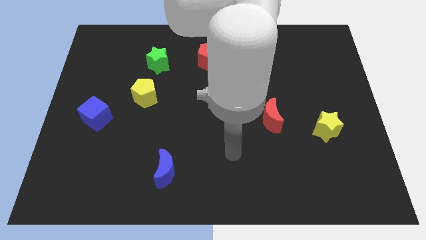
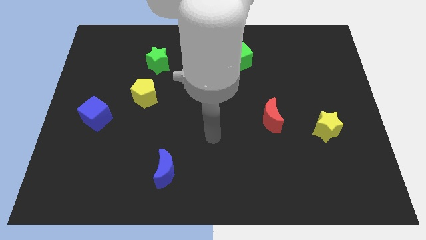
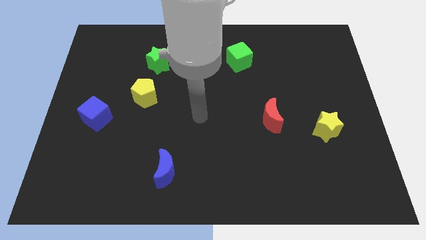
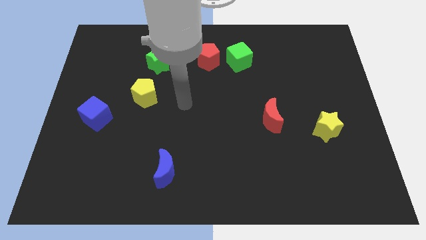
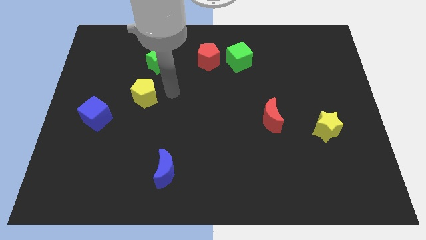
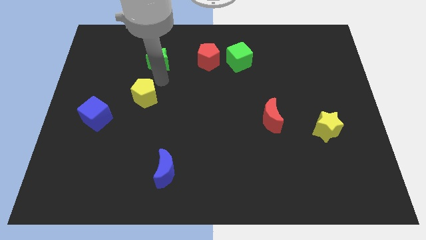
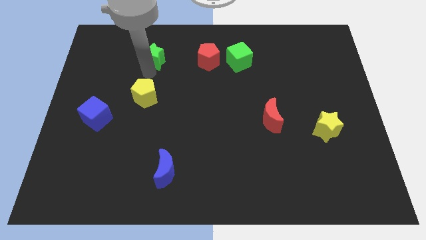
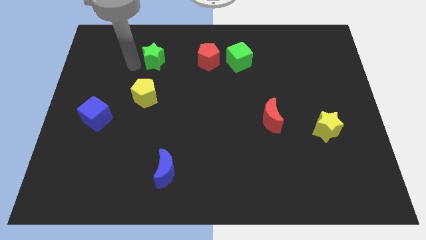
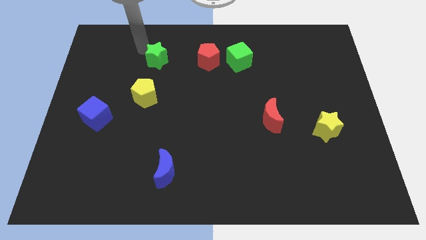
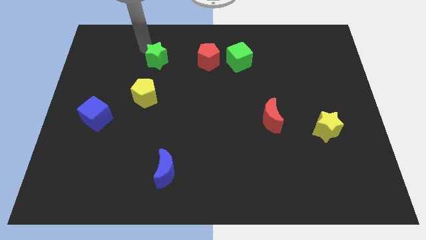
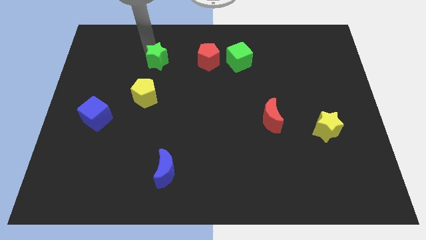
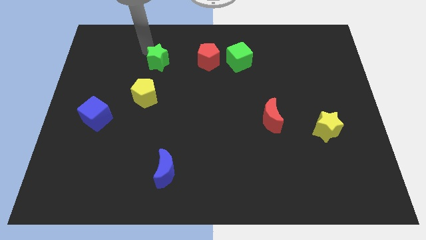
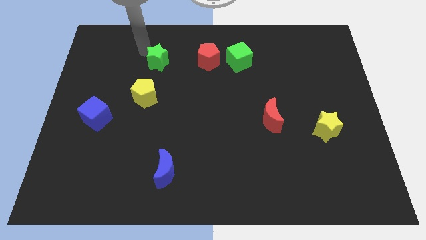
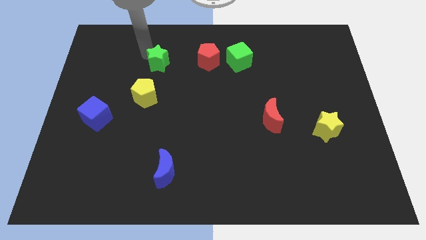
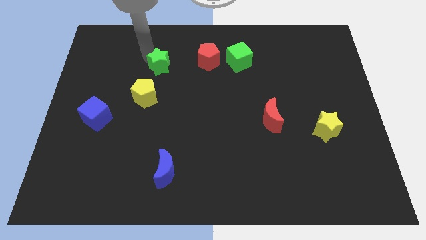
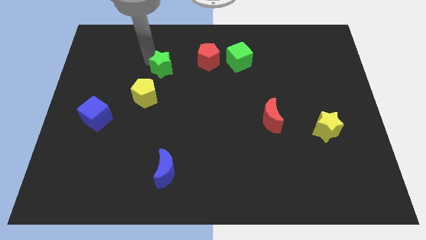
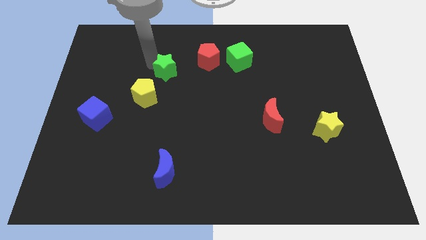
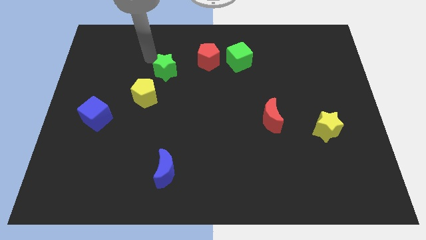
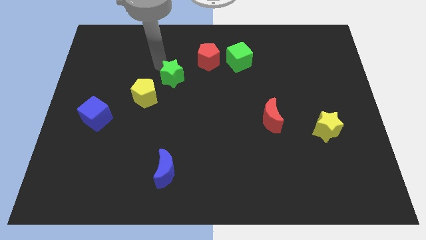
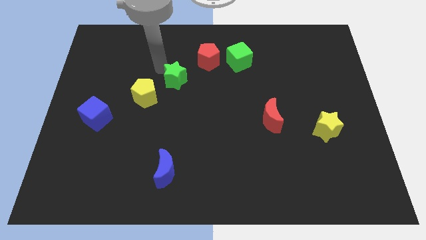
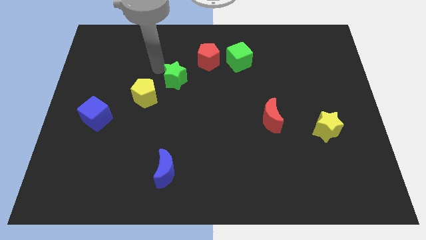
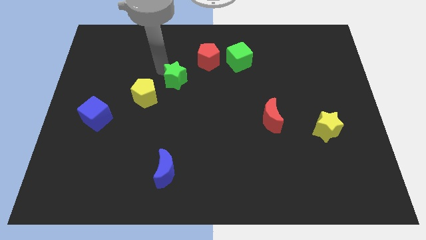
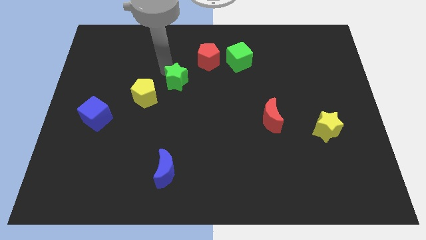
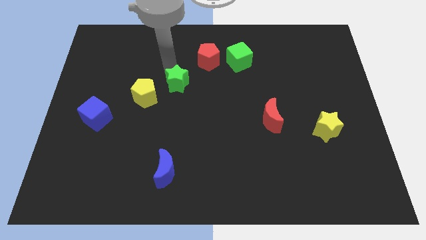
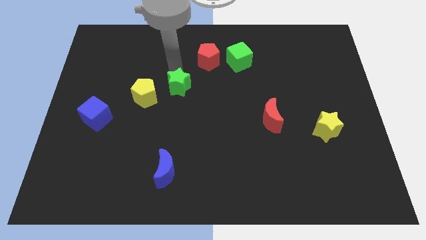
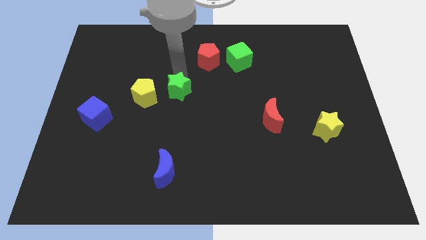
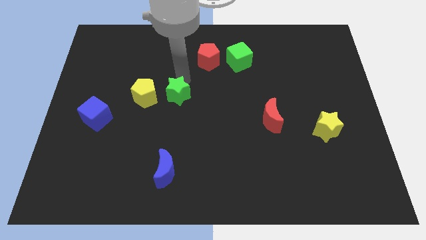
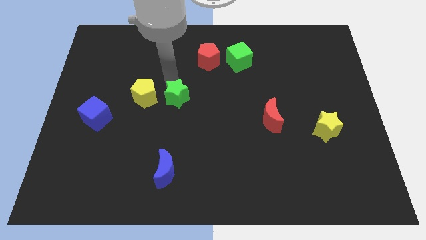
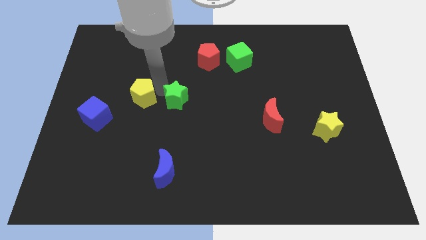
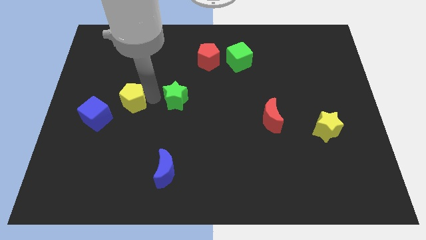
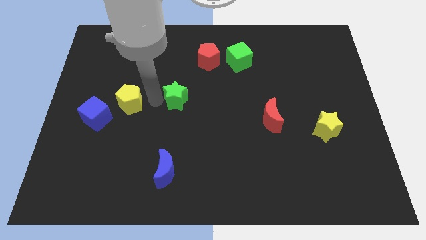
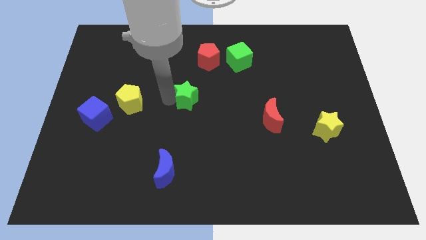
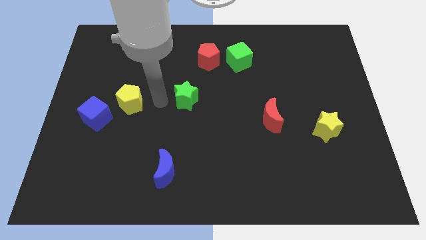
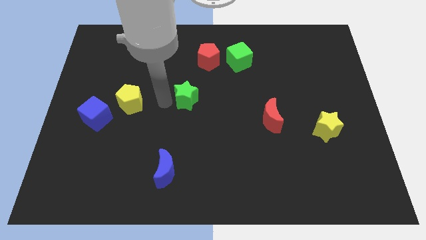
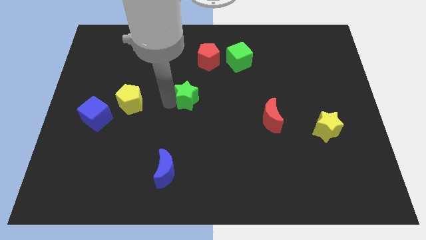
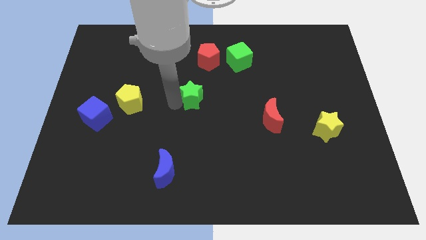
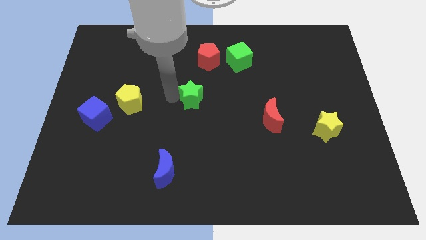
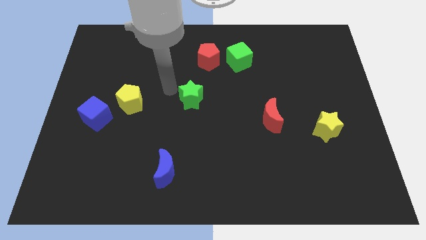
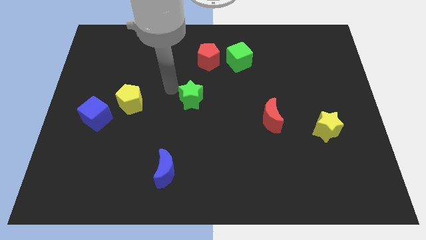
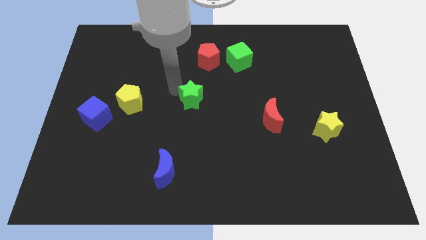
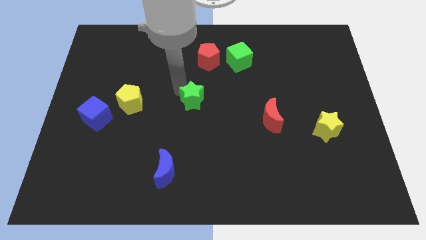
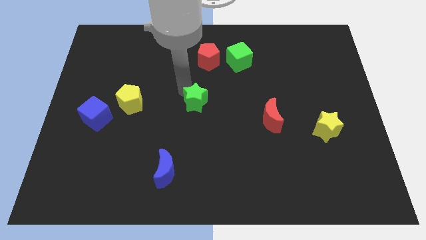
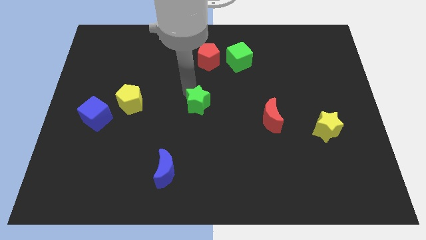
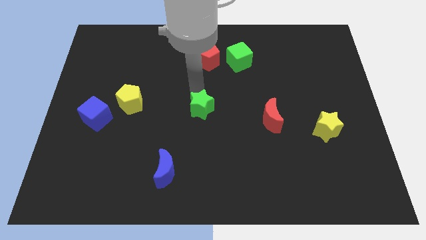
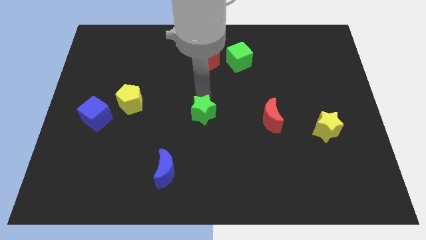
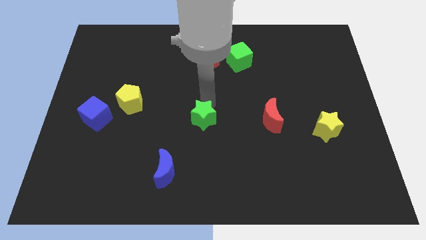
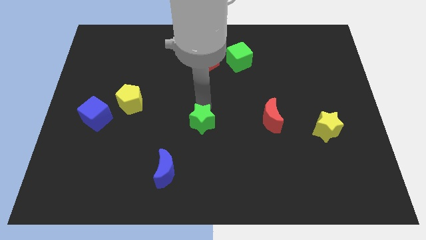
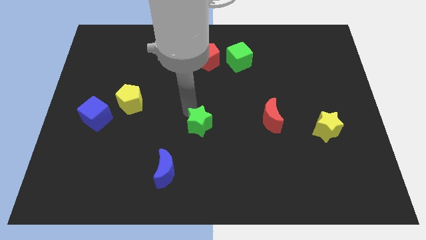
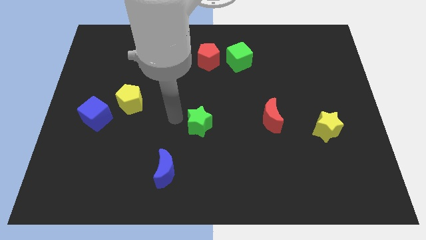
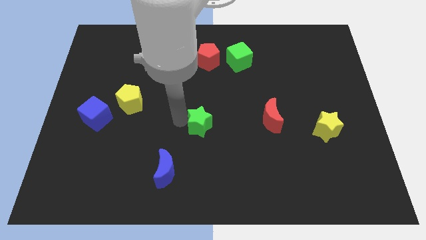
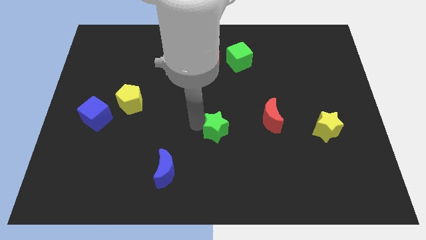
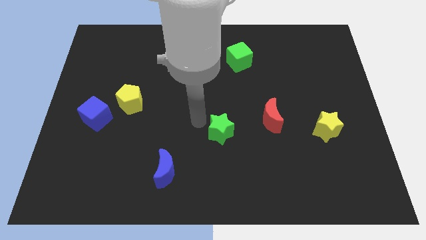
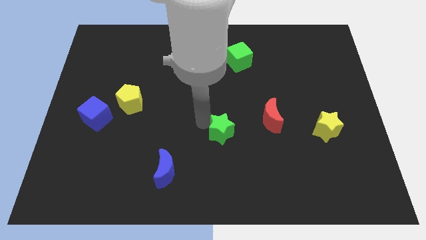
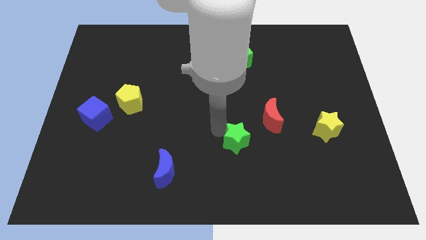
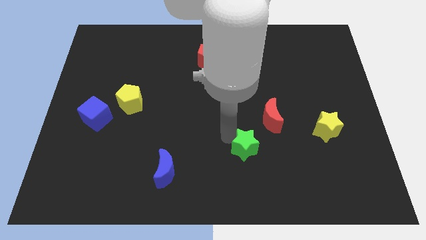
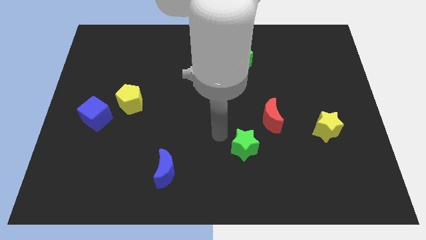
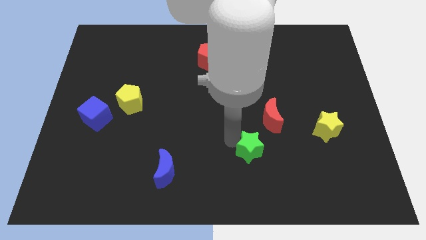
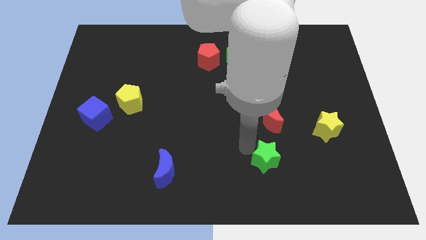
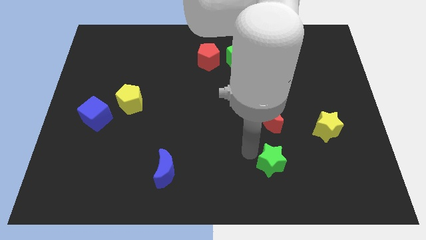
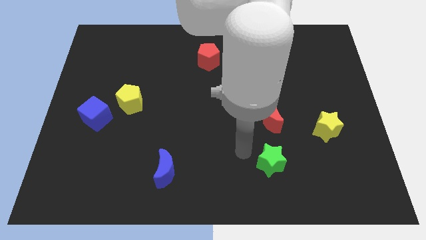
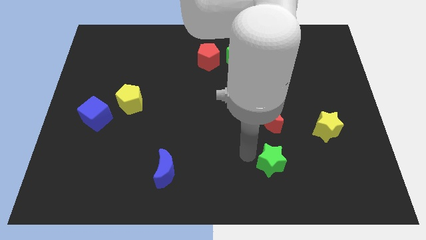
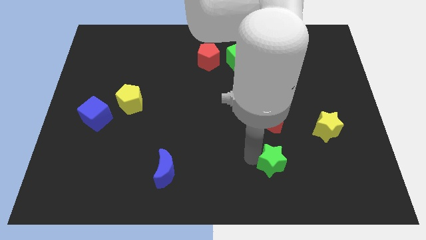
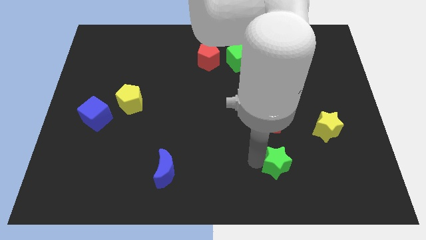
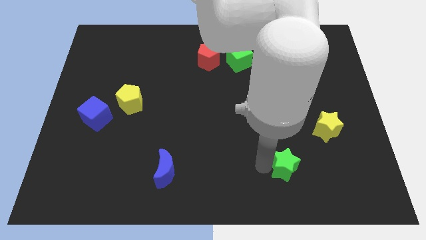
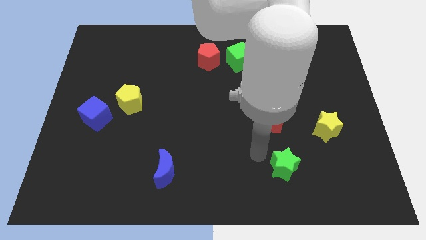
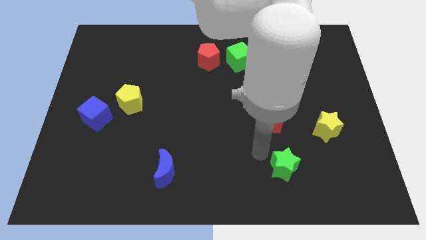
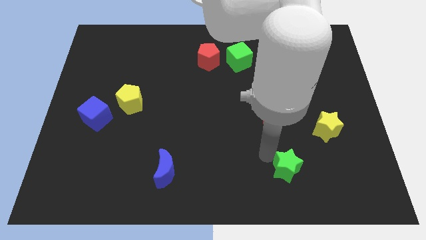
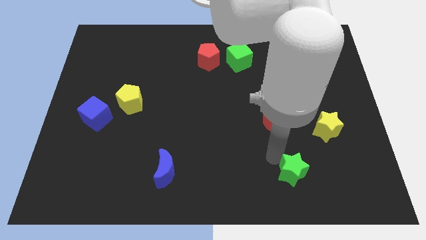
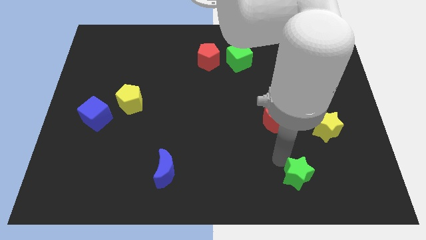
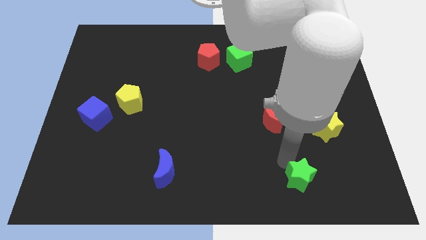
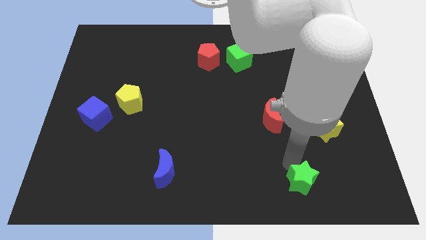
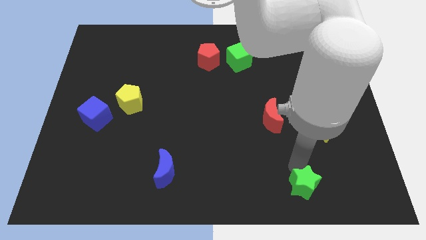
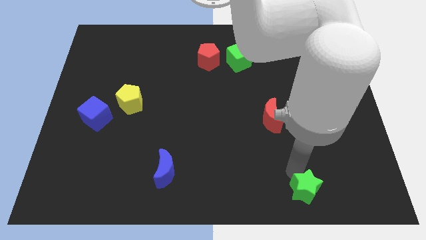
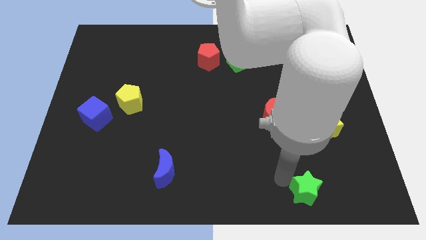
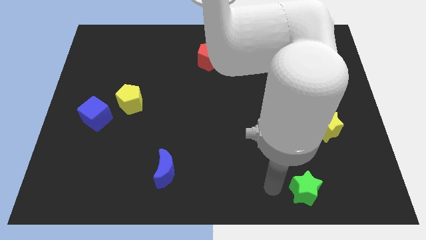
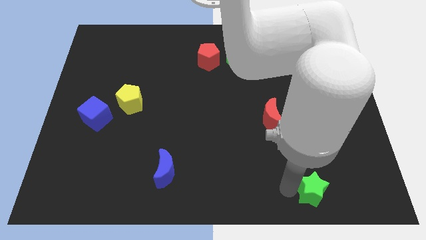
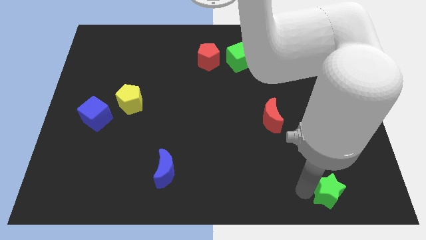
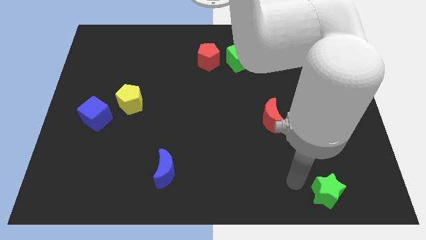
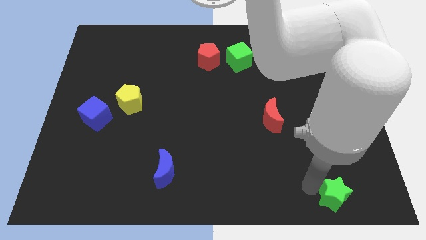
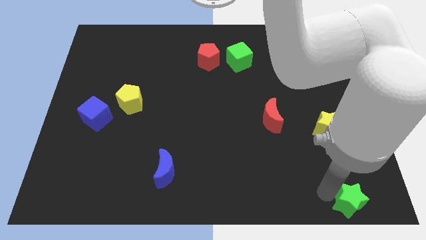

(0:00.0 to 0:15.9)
move the green star to the lower right corner
